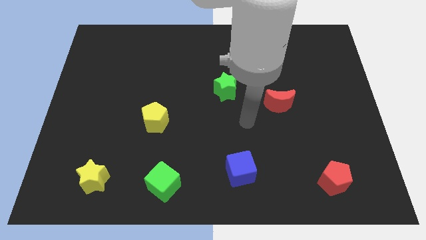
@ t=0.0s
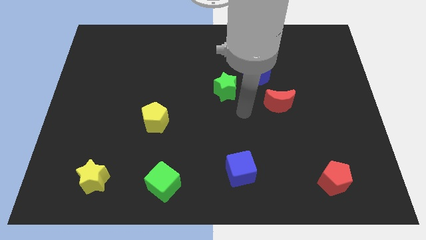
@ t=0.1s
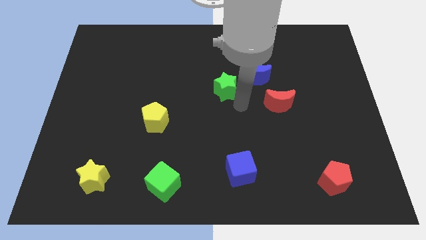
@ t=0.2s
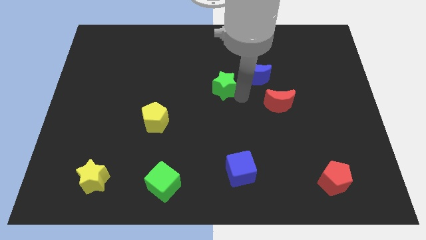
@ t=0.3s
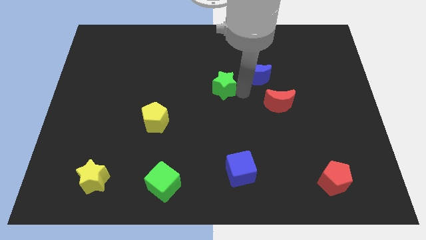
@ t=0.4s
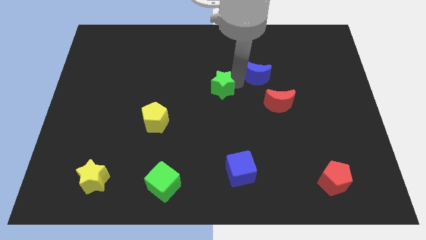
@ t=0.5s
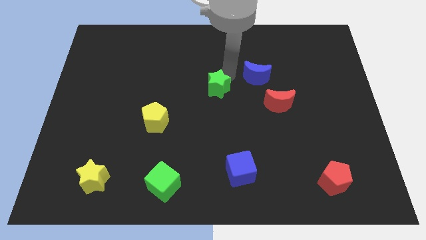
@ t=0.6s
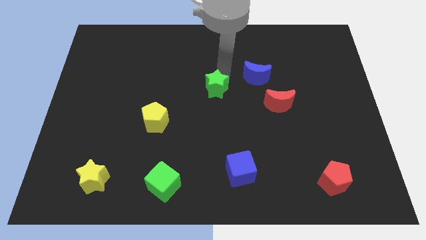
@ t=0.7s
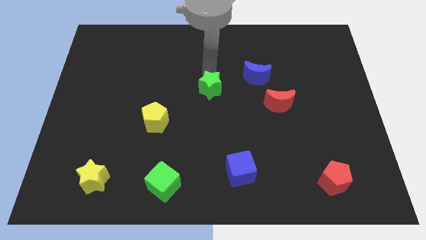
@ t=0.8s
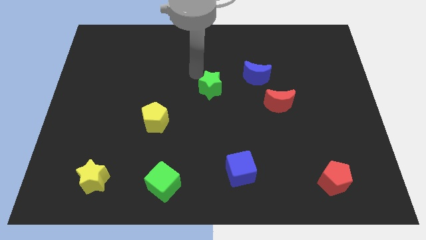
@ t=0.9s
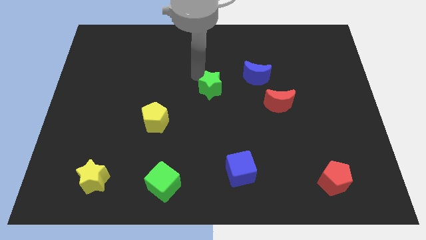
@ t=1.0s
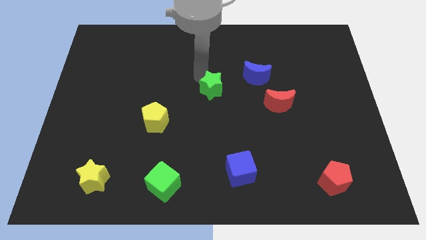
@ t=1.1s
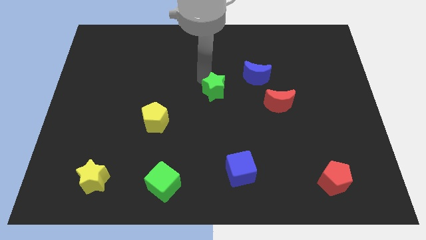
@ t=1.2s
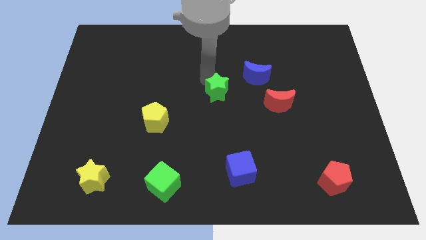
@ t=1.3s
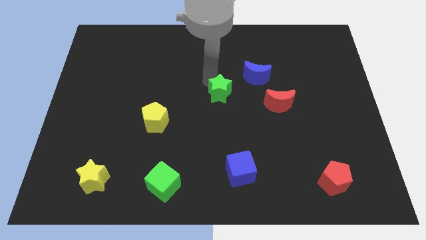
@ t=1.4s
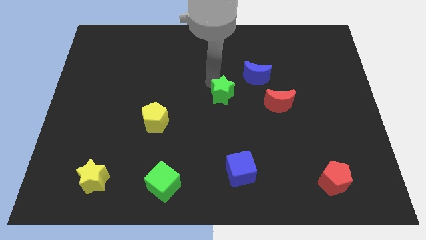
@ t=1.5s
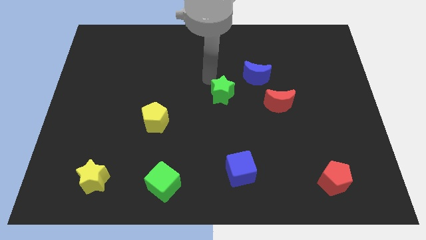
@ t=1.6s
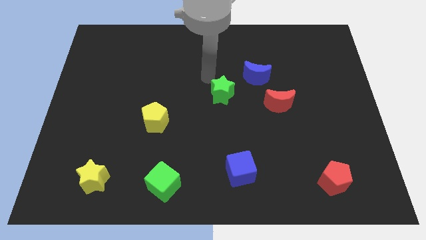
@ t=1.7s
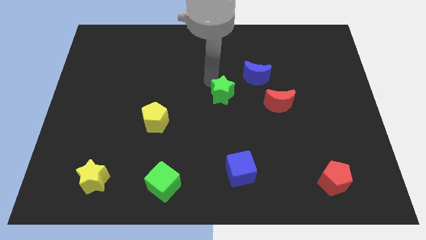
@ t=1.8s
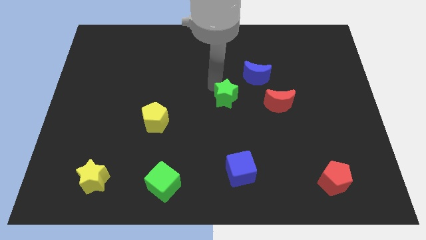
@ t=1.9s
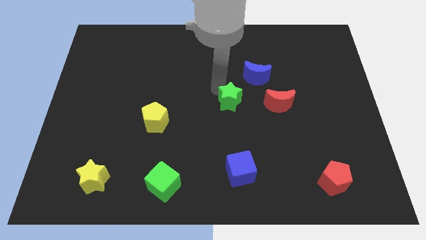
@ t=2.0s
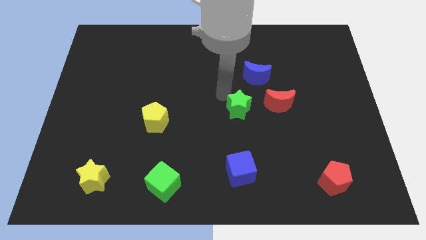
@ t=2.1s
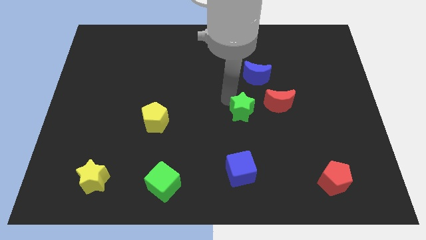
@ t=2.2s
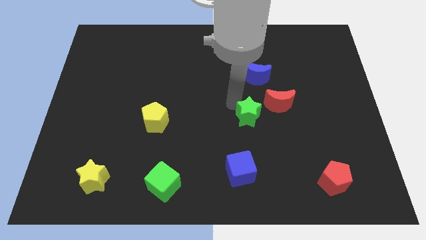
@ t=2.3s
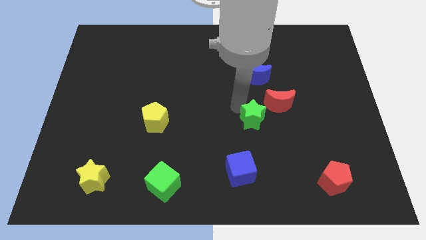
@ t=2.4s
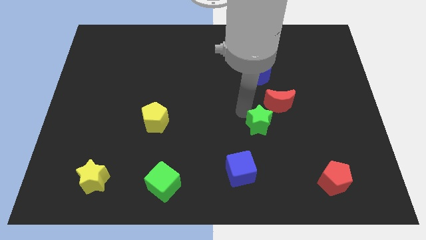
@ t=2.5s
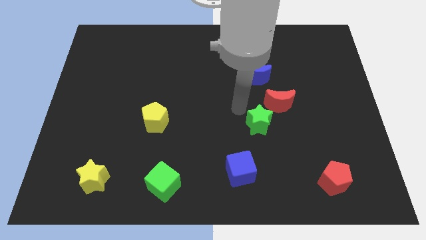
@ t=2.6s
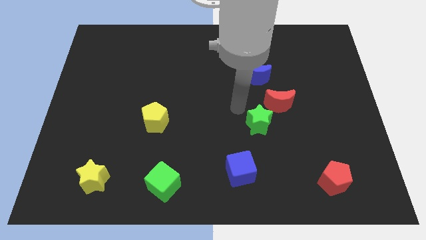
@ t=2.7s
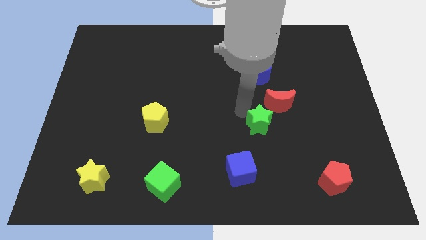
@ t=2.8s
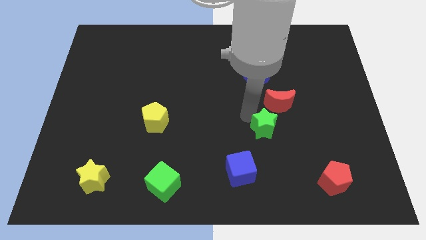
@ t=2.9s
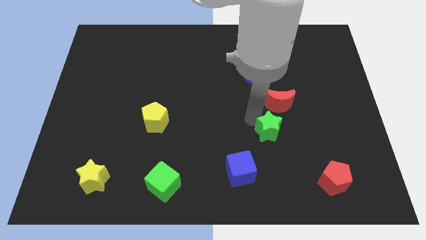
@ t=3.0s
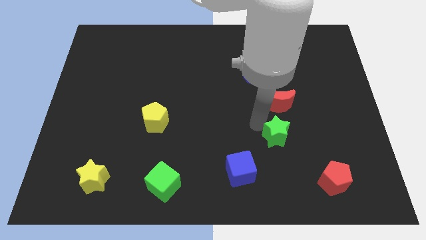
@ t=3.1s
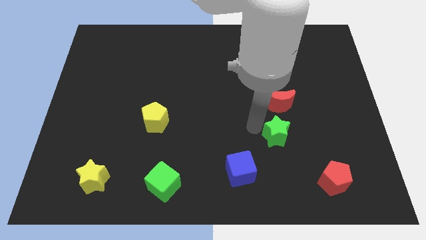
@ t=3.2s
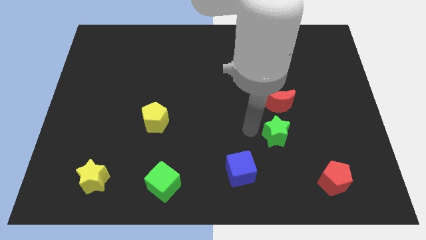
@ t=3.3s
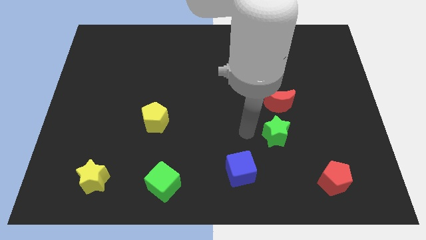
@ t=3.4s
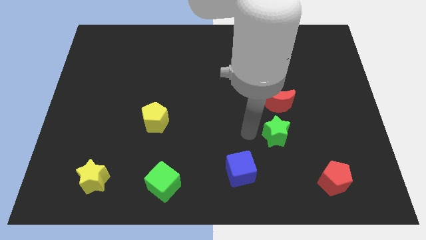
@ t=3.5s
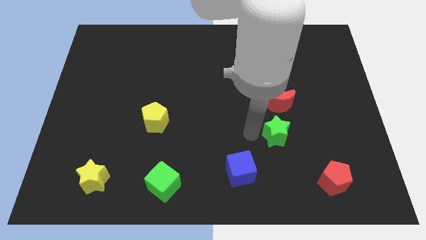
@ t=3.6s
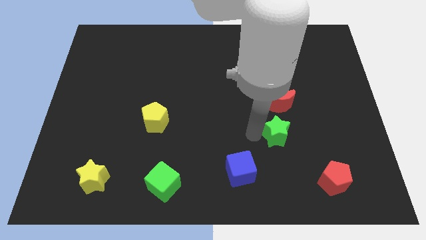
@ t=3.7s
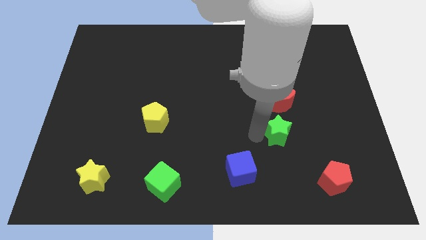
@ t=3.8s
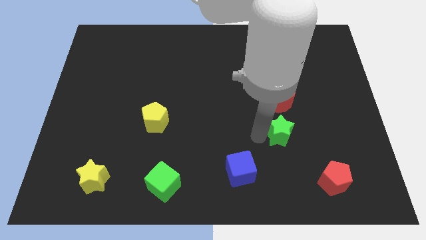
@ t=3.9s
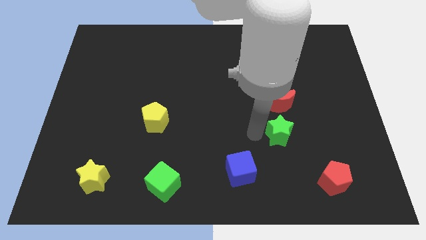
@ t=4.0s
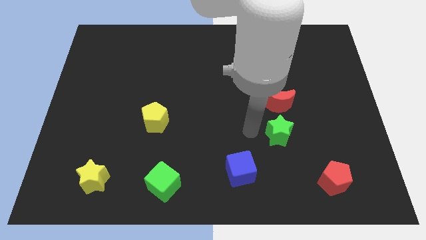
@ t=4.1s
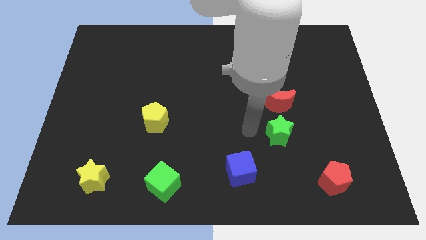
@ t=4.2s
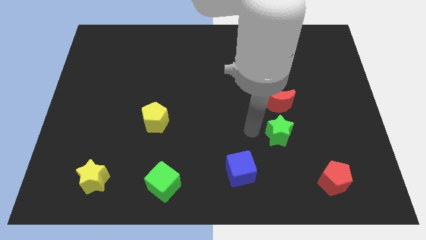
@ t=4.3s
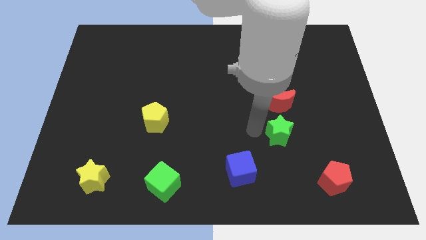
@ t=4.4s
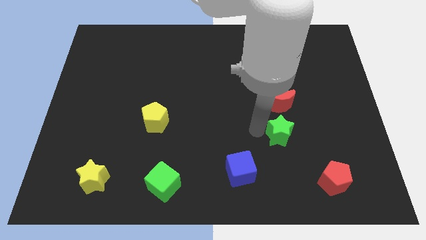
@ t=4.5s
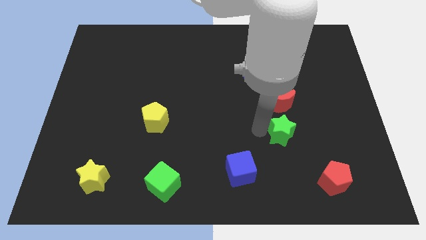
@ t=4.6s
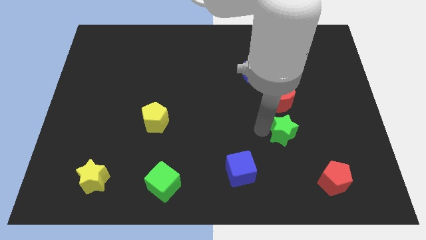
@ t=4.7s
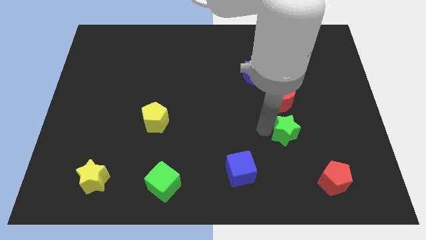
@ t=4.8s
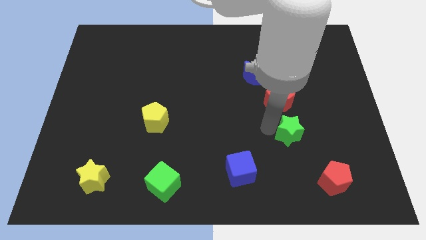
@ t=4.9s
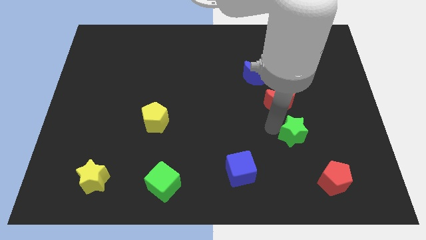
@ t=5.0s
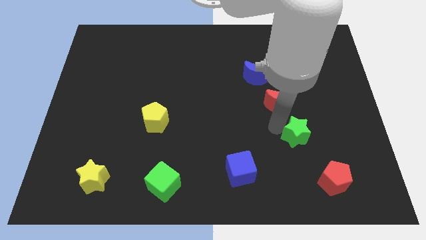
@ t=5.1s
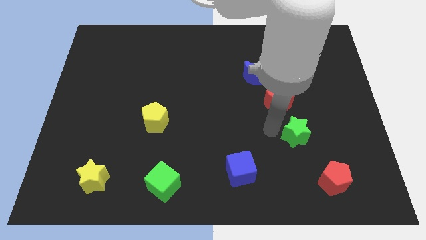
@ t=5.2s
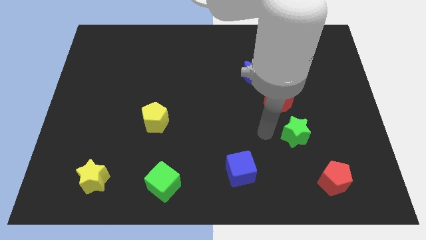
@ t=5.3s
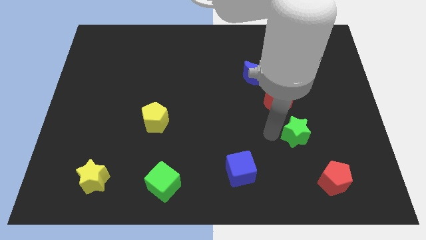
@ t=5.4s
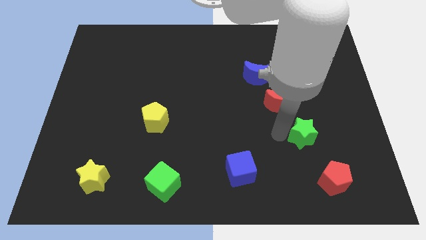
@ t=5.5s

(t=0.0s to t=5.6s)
slide the green star above the red pentagon

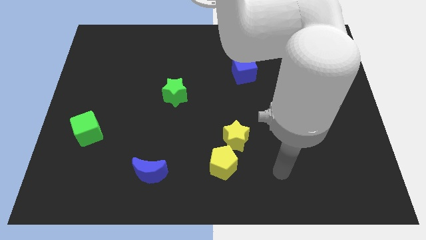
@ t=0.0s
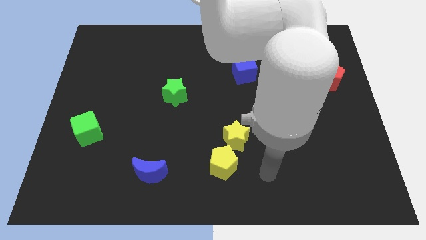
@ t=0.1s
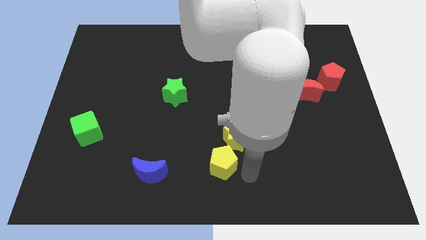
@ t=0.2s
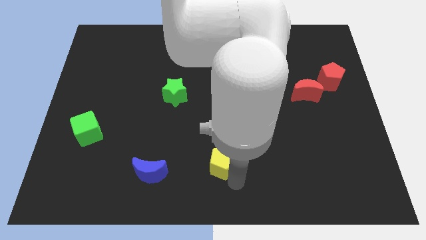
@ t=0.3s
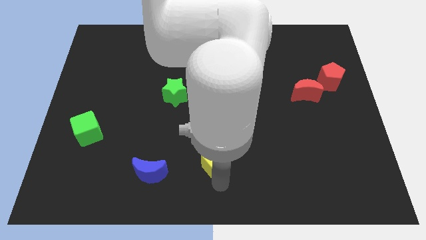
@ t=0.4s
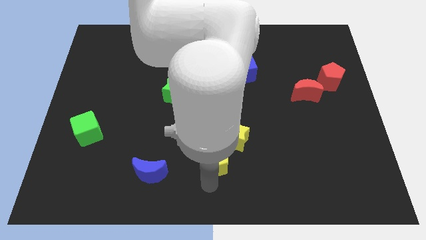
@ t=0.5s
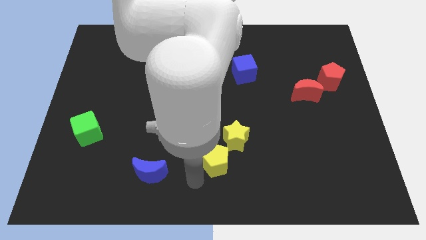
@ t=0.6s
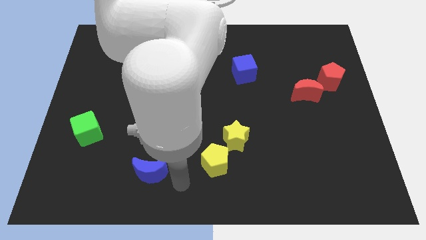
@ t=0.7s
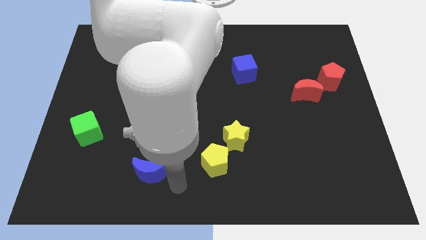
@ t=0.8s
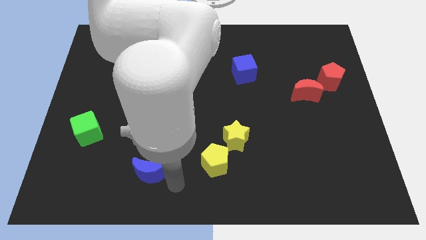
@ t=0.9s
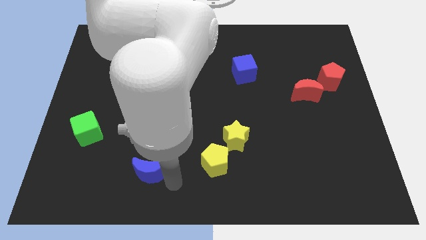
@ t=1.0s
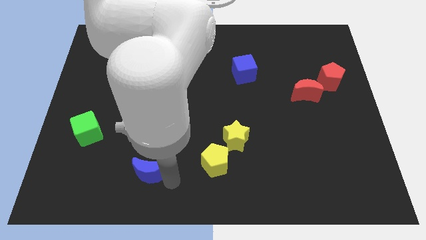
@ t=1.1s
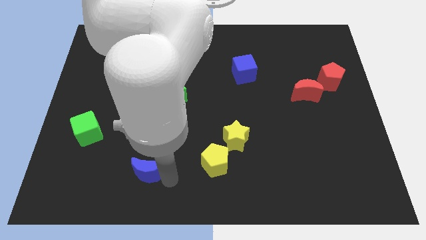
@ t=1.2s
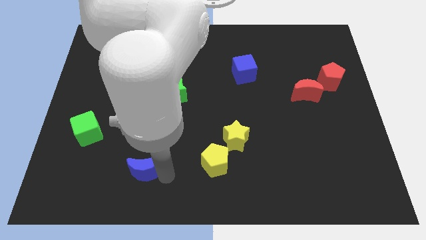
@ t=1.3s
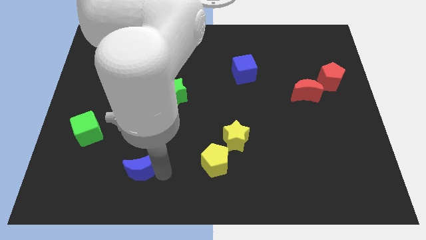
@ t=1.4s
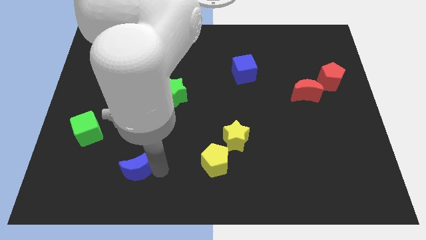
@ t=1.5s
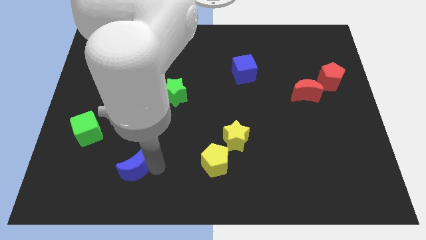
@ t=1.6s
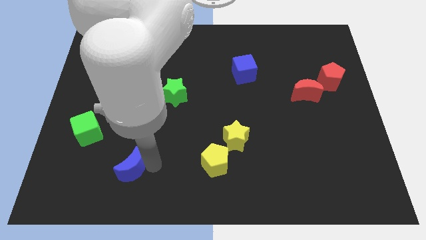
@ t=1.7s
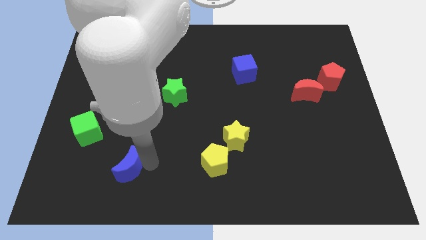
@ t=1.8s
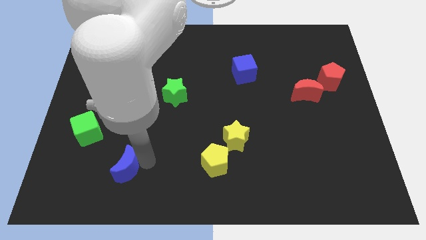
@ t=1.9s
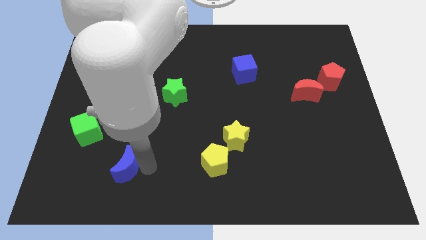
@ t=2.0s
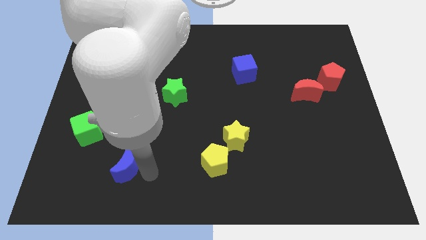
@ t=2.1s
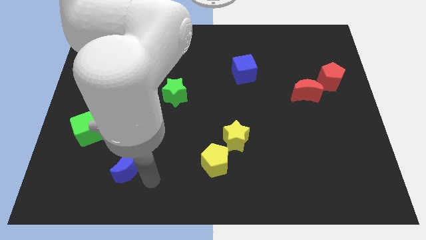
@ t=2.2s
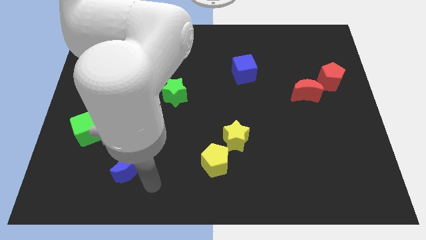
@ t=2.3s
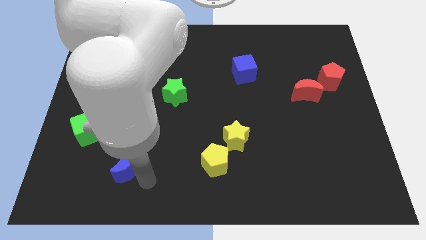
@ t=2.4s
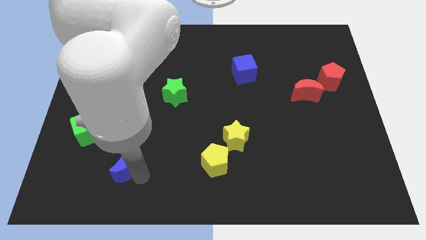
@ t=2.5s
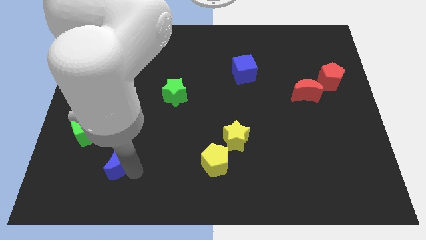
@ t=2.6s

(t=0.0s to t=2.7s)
slide the blue moon diagonally down and to the right of the green cube
